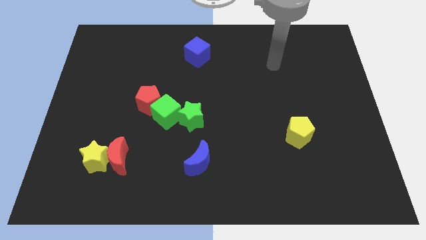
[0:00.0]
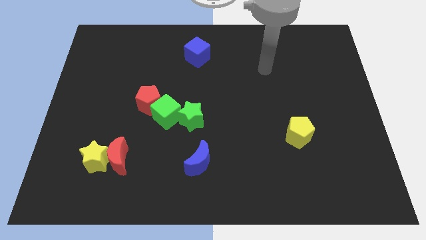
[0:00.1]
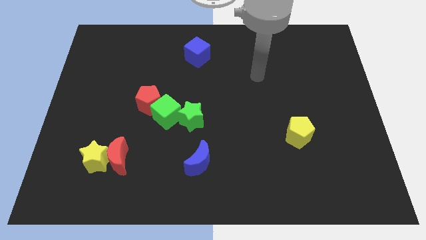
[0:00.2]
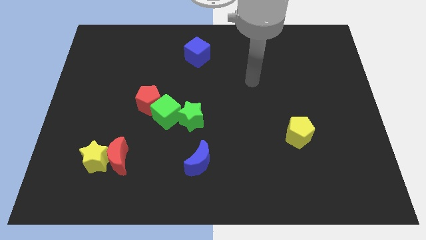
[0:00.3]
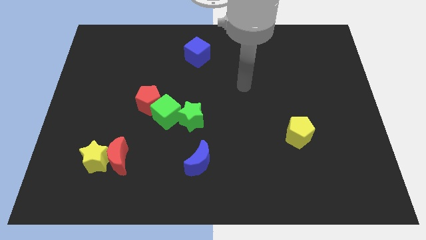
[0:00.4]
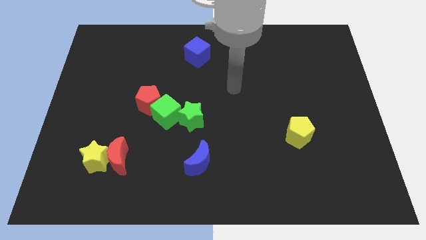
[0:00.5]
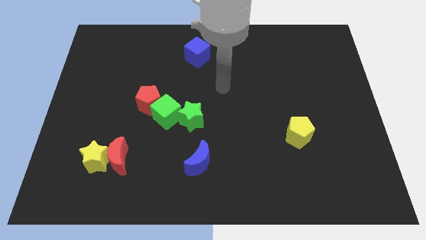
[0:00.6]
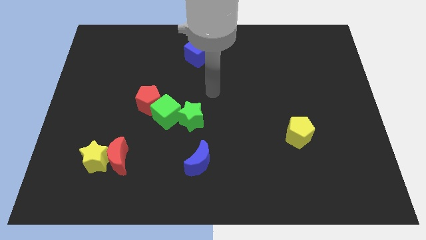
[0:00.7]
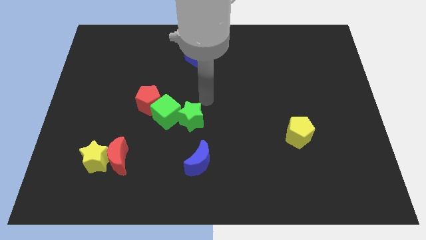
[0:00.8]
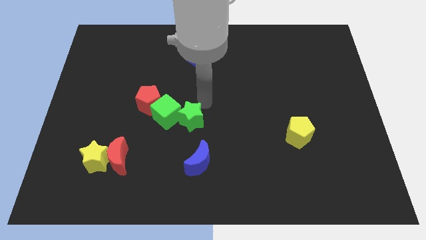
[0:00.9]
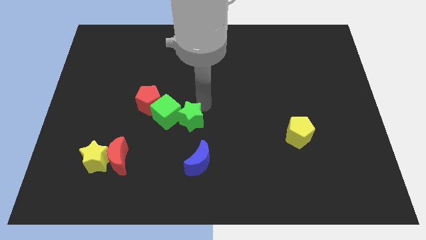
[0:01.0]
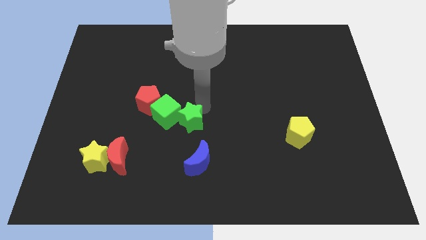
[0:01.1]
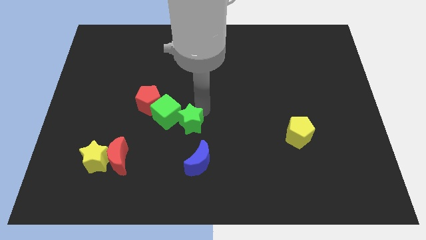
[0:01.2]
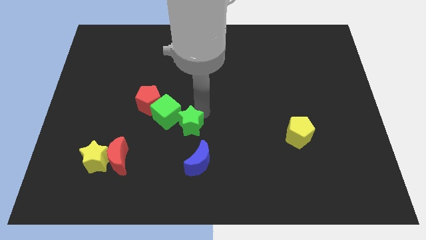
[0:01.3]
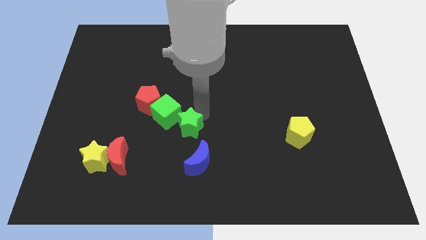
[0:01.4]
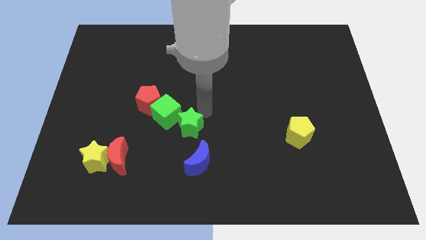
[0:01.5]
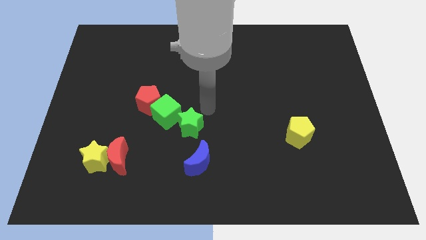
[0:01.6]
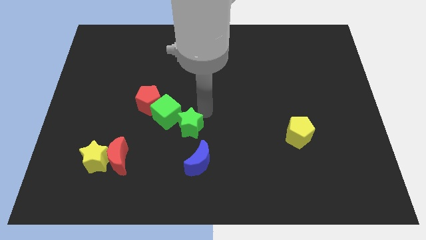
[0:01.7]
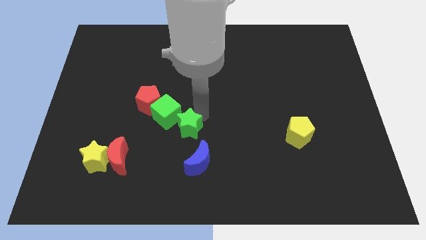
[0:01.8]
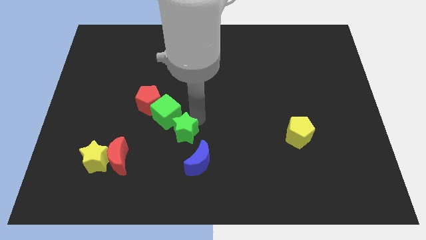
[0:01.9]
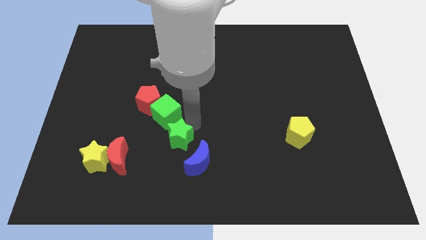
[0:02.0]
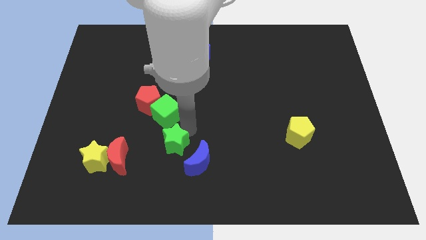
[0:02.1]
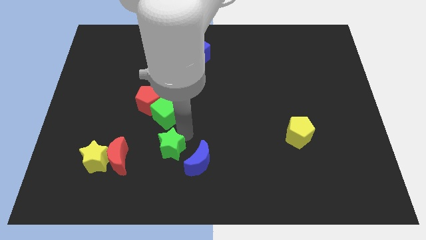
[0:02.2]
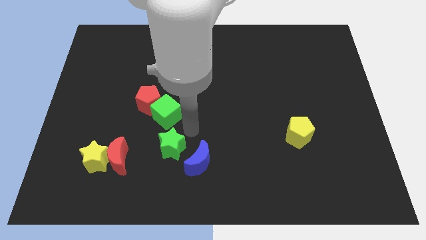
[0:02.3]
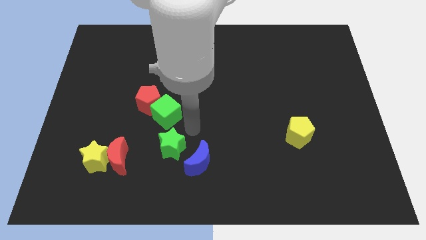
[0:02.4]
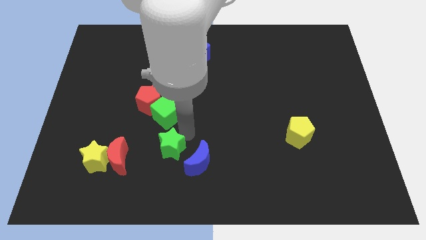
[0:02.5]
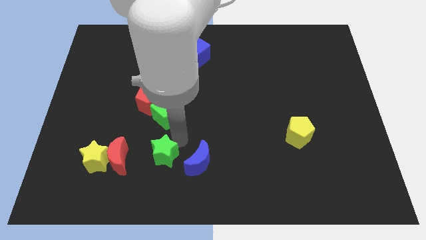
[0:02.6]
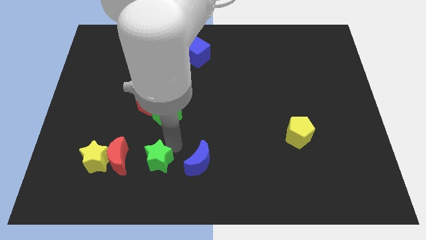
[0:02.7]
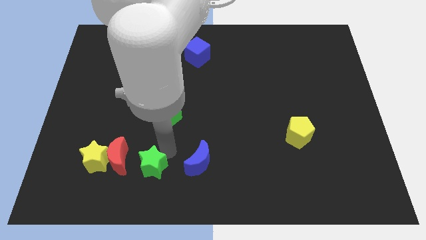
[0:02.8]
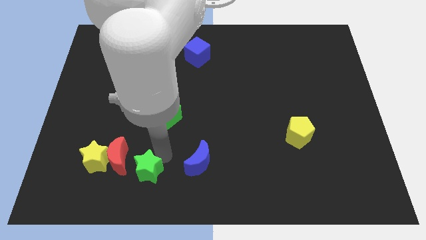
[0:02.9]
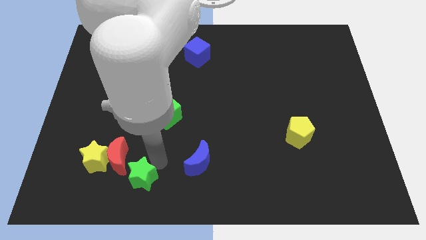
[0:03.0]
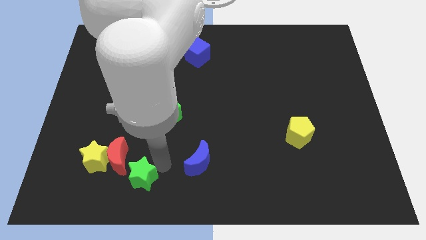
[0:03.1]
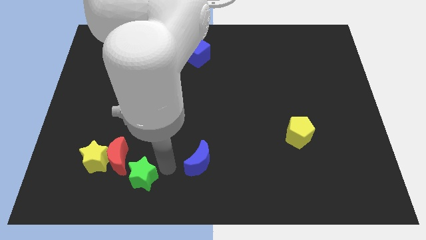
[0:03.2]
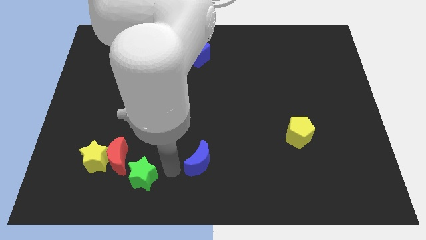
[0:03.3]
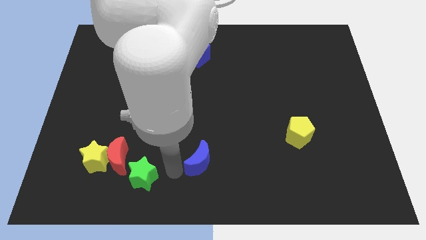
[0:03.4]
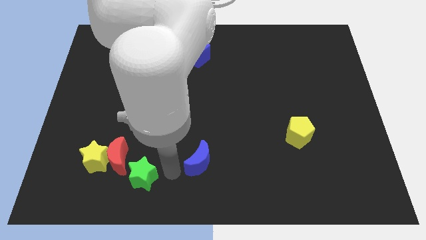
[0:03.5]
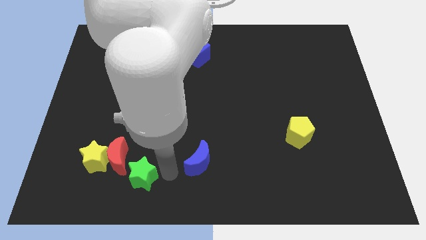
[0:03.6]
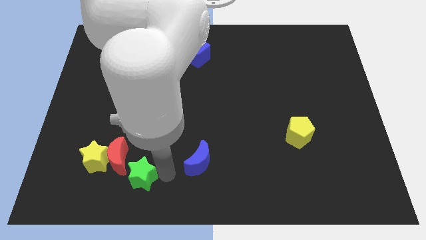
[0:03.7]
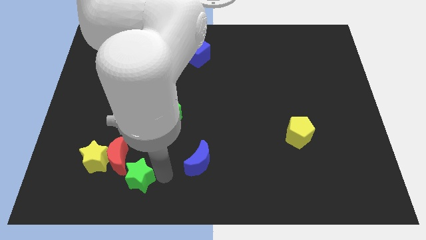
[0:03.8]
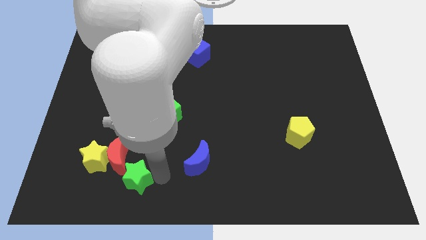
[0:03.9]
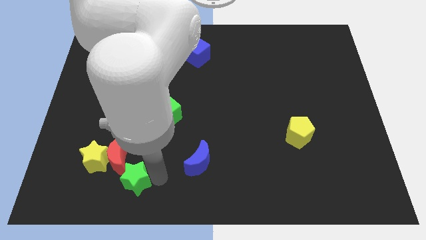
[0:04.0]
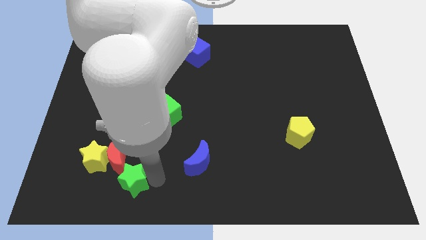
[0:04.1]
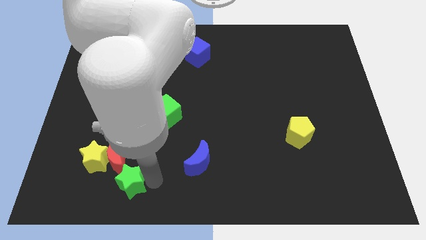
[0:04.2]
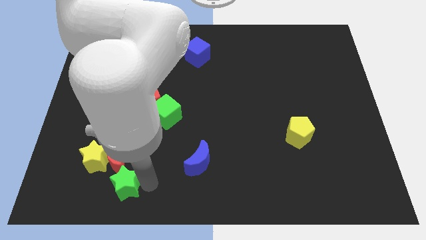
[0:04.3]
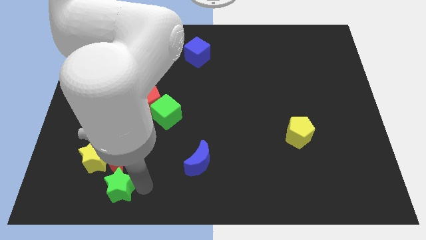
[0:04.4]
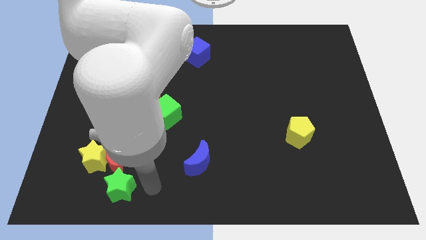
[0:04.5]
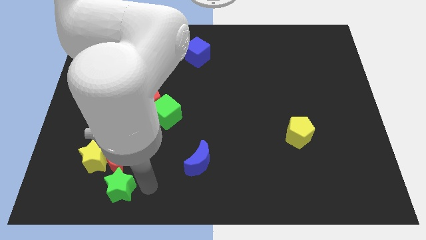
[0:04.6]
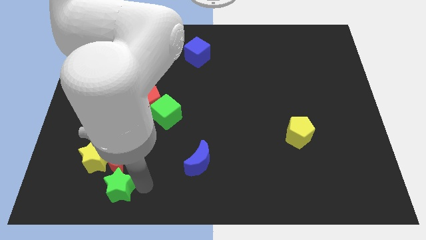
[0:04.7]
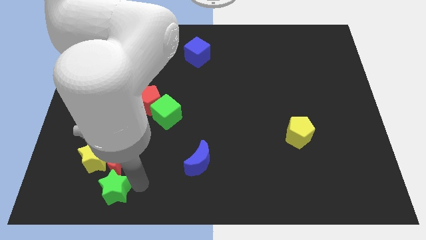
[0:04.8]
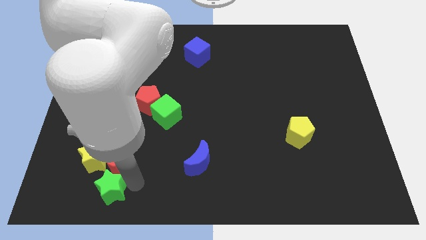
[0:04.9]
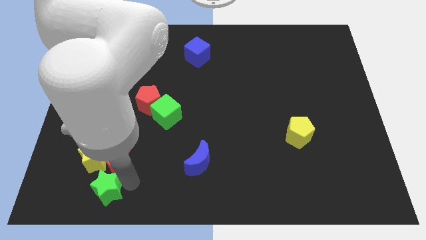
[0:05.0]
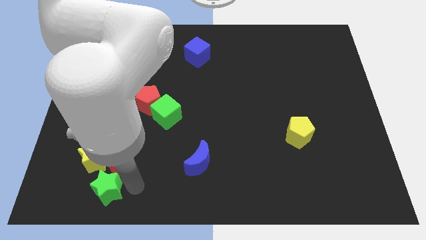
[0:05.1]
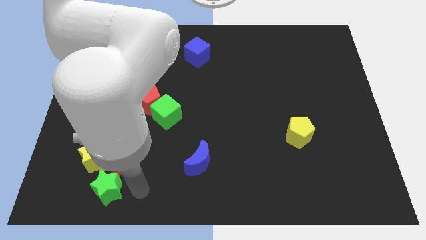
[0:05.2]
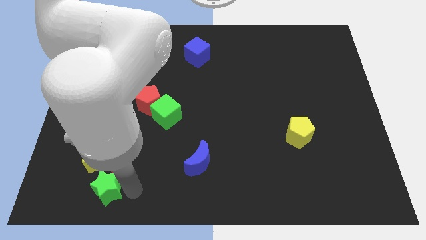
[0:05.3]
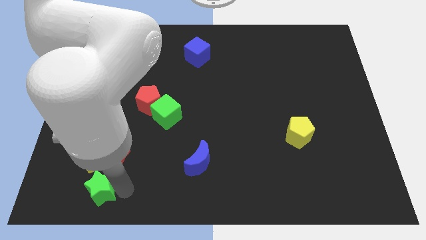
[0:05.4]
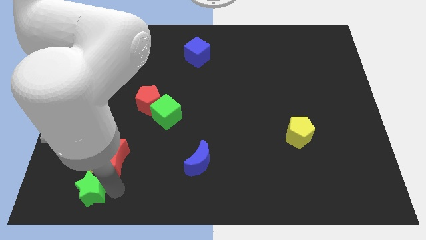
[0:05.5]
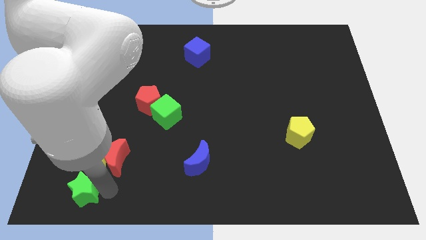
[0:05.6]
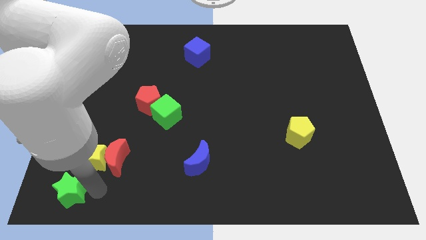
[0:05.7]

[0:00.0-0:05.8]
push the green star to the bottom left corner

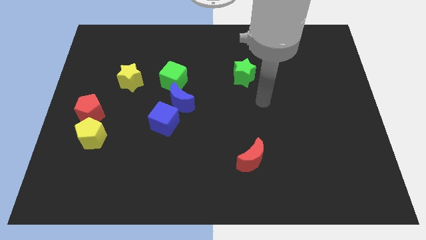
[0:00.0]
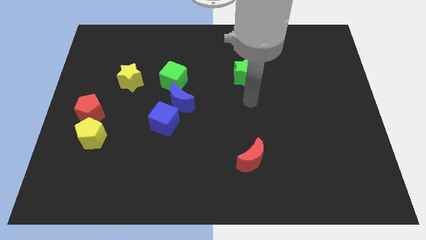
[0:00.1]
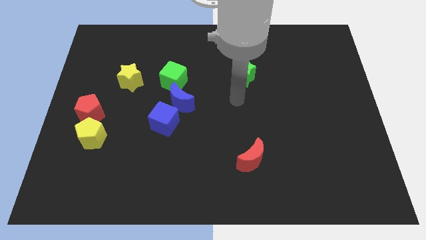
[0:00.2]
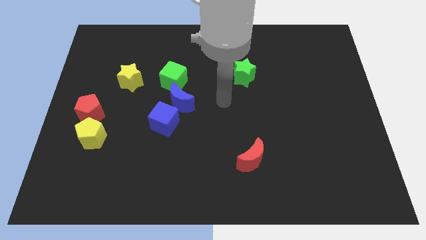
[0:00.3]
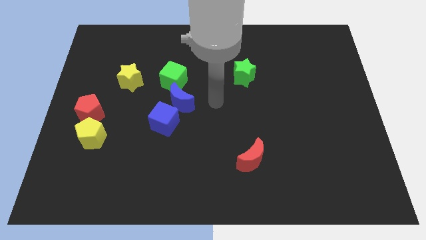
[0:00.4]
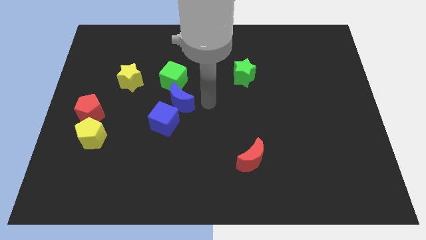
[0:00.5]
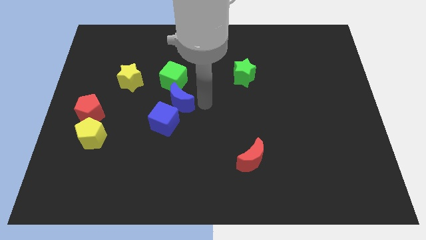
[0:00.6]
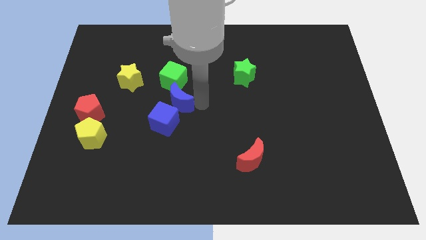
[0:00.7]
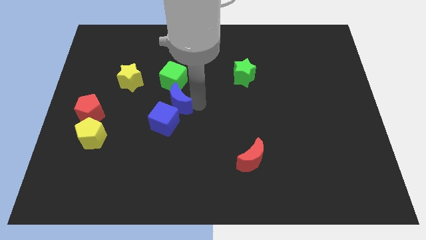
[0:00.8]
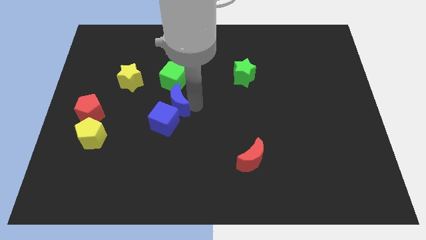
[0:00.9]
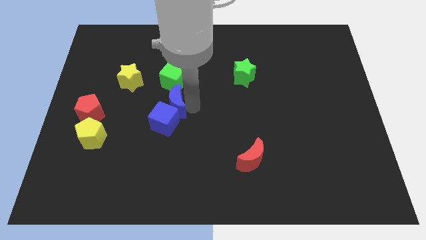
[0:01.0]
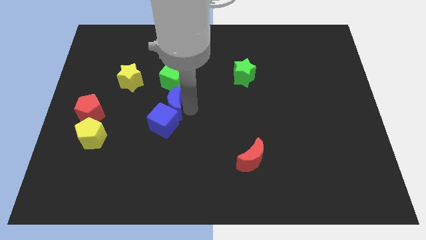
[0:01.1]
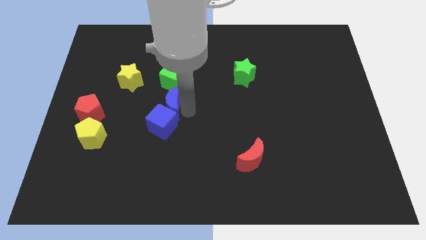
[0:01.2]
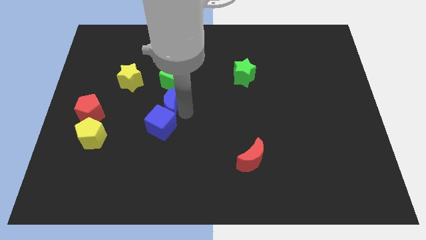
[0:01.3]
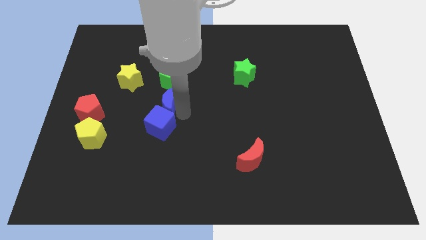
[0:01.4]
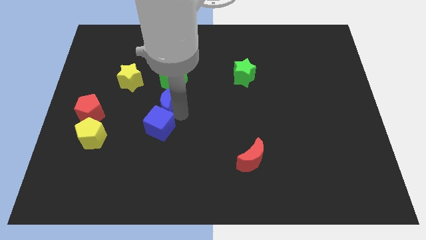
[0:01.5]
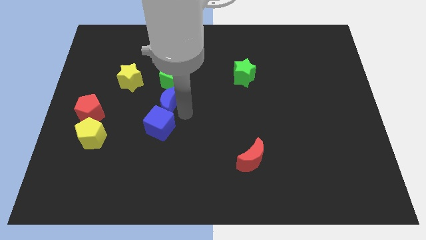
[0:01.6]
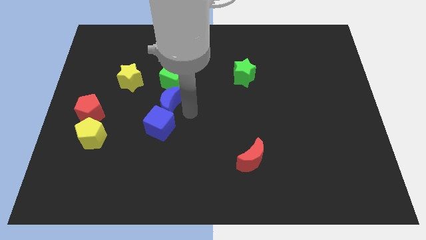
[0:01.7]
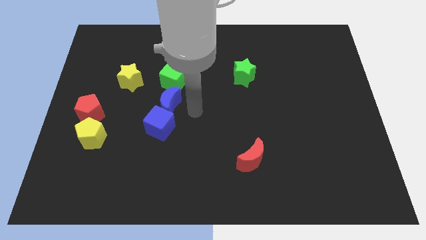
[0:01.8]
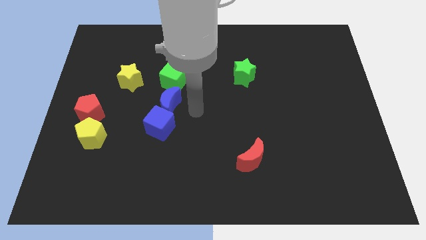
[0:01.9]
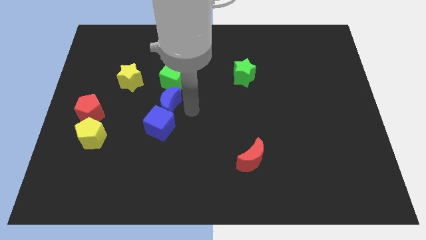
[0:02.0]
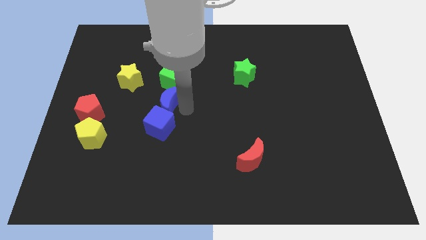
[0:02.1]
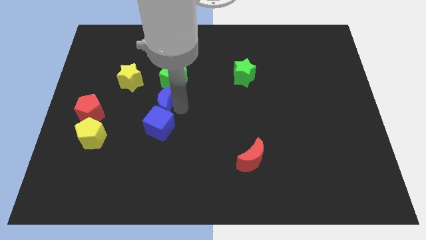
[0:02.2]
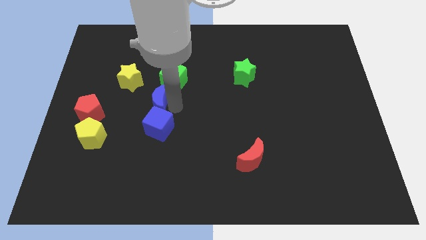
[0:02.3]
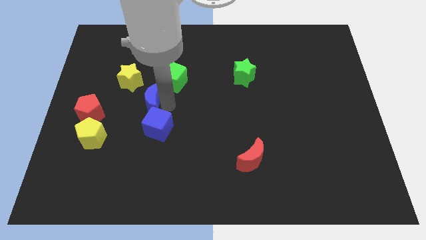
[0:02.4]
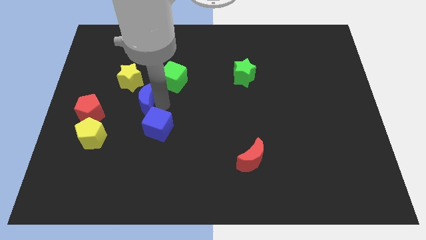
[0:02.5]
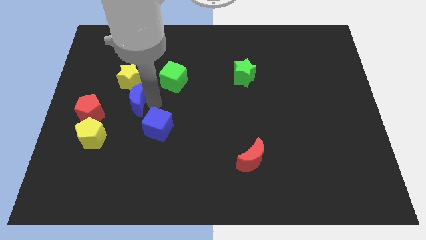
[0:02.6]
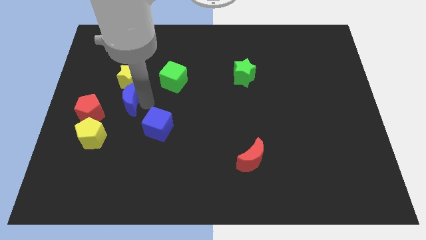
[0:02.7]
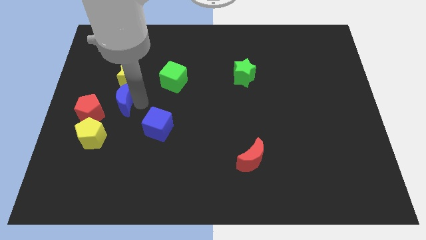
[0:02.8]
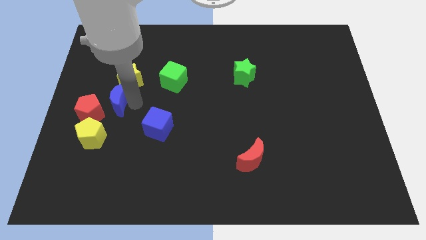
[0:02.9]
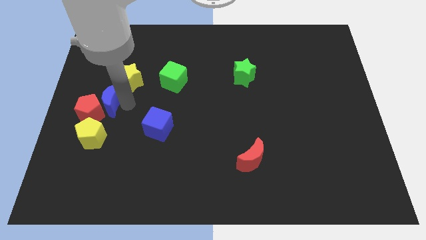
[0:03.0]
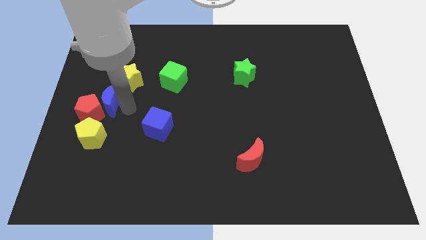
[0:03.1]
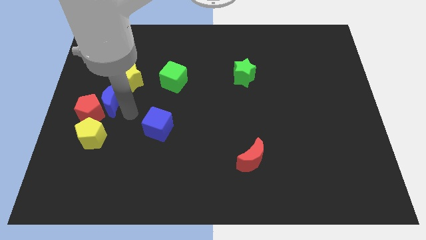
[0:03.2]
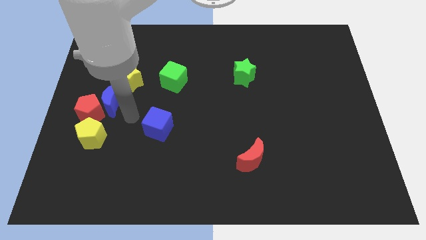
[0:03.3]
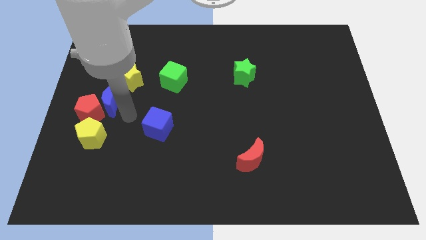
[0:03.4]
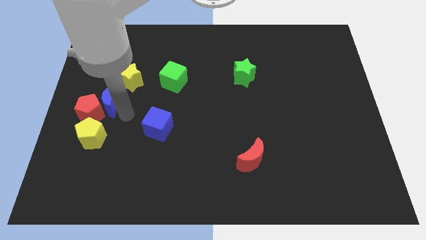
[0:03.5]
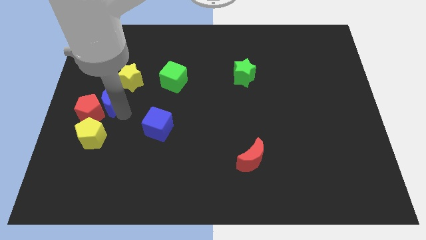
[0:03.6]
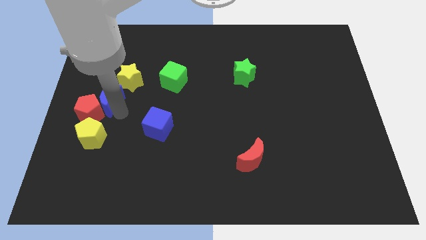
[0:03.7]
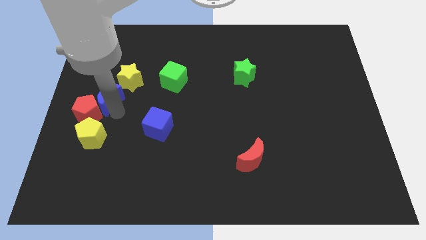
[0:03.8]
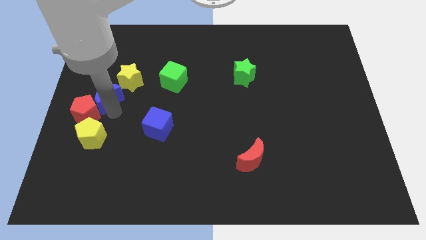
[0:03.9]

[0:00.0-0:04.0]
move the blue moon to the left side of the board
